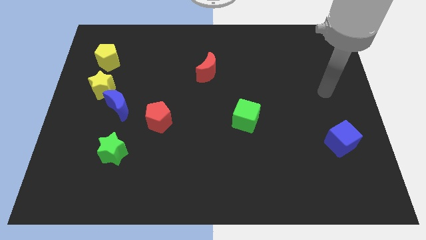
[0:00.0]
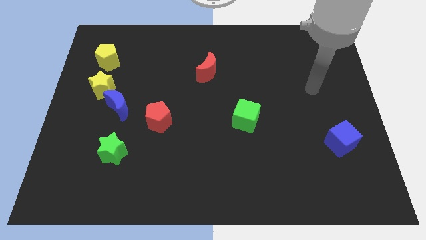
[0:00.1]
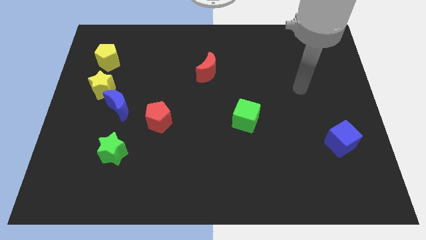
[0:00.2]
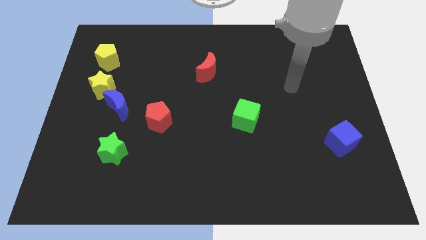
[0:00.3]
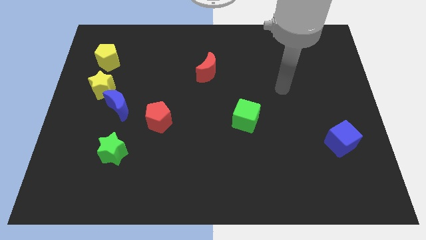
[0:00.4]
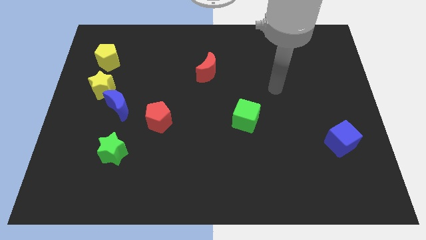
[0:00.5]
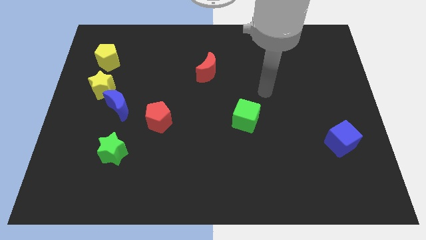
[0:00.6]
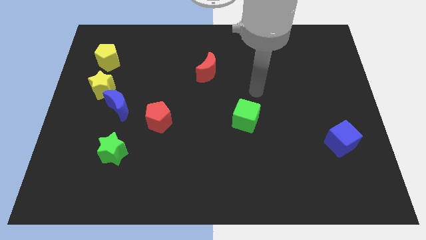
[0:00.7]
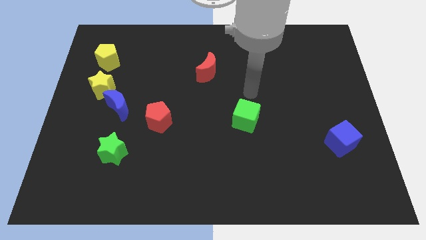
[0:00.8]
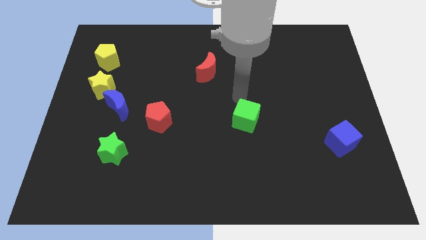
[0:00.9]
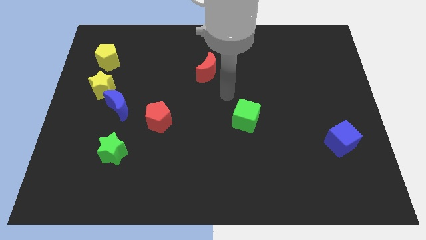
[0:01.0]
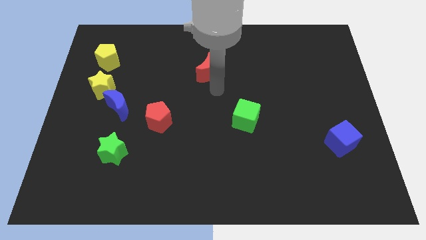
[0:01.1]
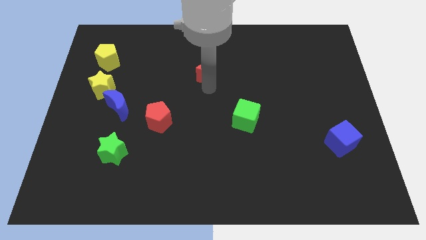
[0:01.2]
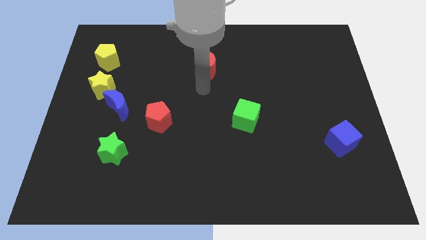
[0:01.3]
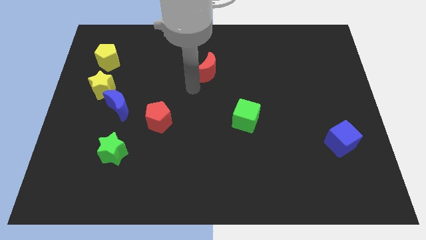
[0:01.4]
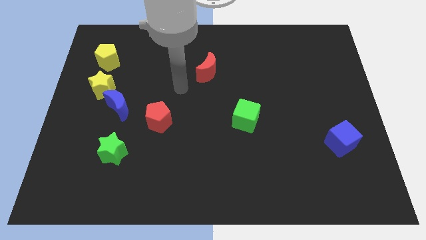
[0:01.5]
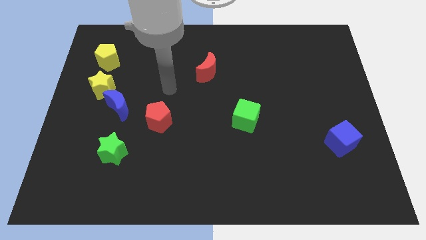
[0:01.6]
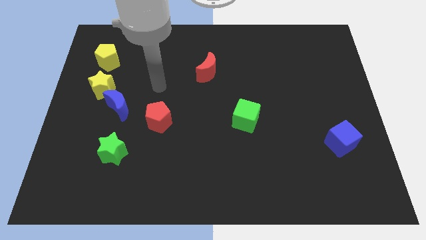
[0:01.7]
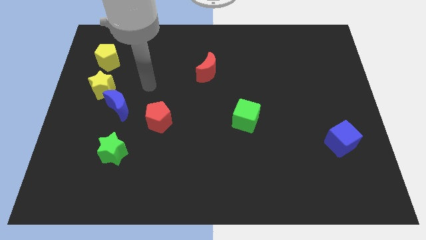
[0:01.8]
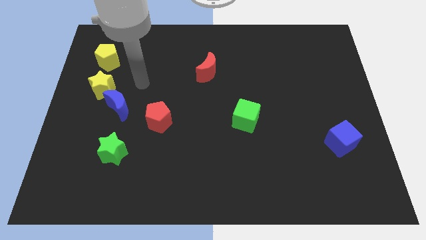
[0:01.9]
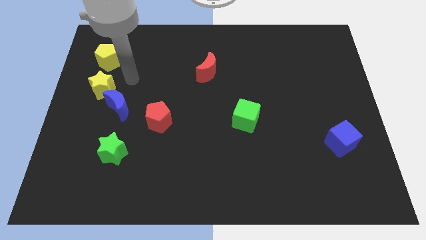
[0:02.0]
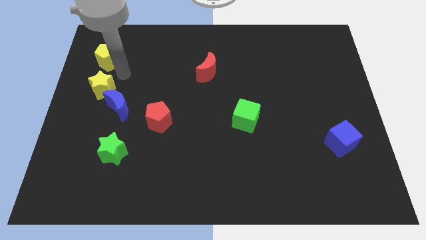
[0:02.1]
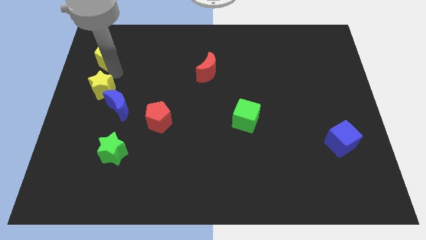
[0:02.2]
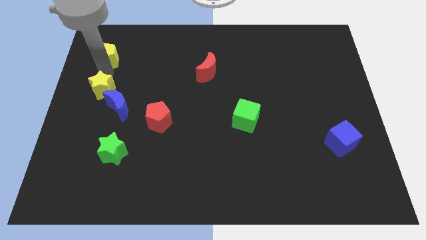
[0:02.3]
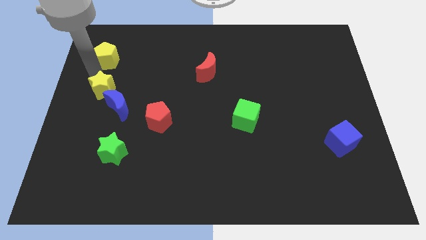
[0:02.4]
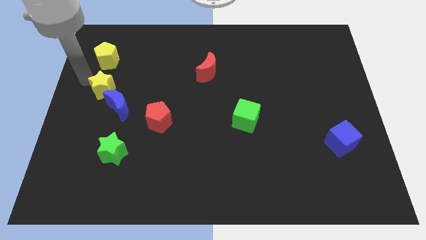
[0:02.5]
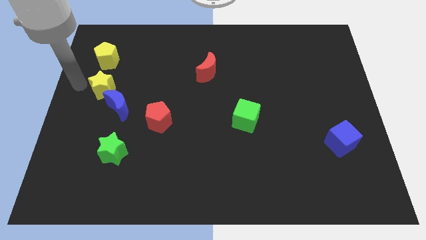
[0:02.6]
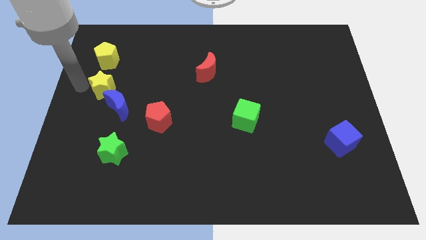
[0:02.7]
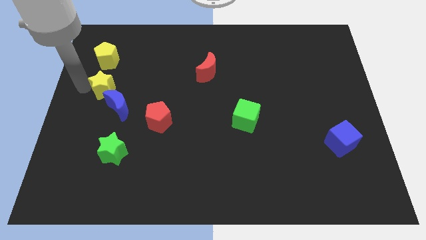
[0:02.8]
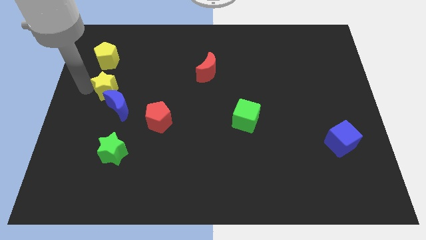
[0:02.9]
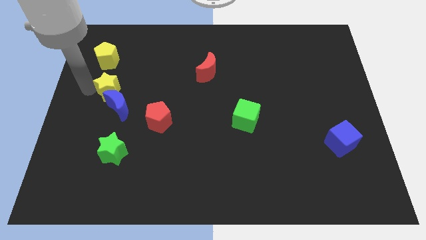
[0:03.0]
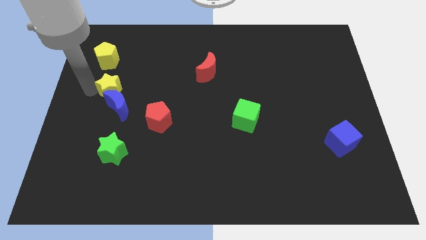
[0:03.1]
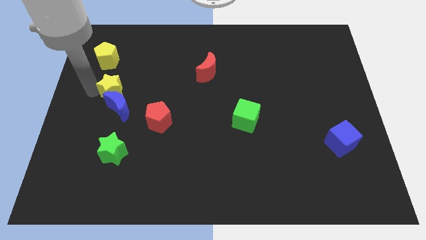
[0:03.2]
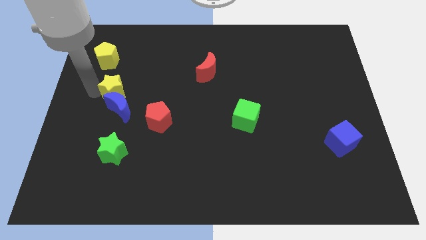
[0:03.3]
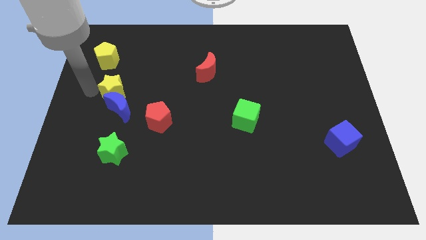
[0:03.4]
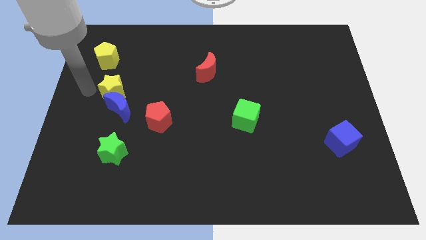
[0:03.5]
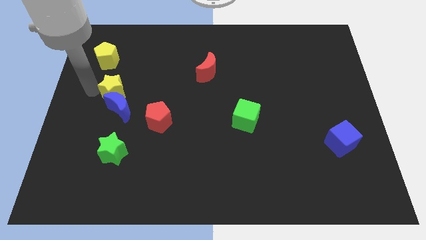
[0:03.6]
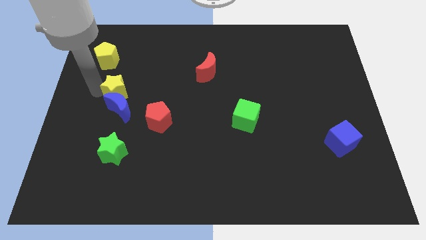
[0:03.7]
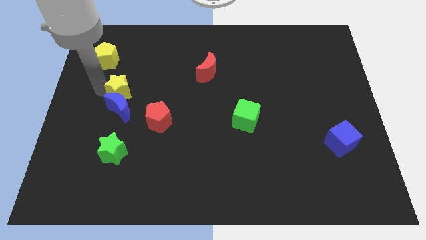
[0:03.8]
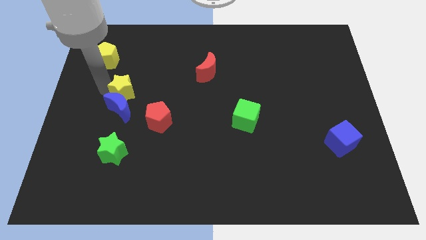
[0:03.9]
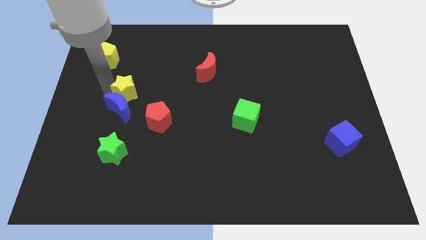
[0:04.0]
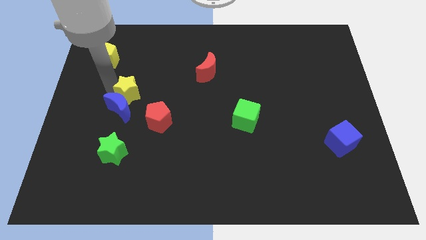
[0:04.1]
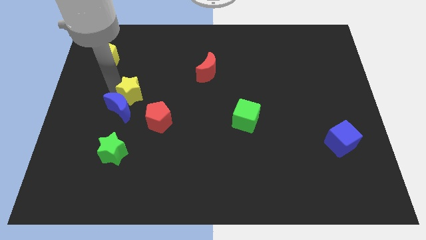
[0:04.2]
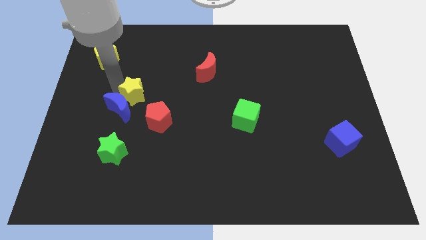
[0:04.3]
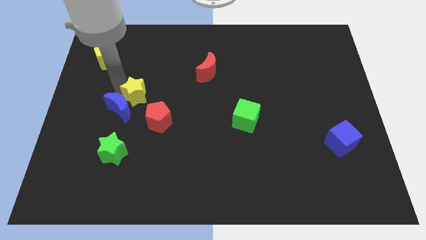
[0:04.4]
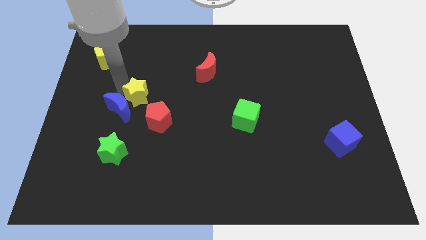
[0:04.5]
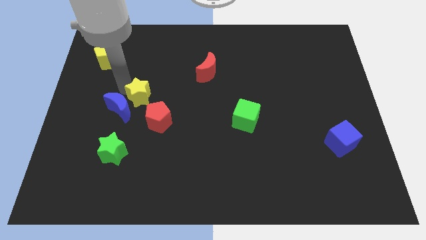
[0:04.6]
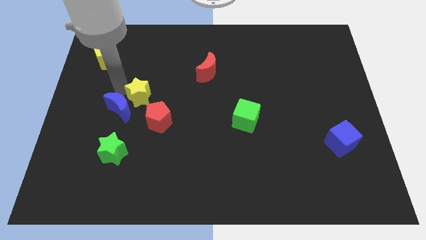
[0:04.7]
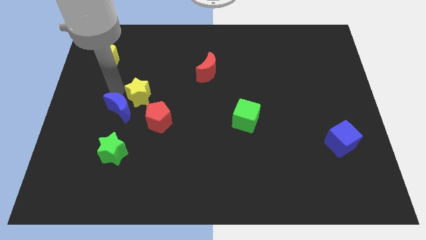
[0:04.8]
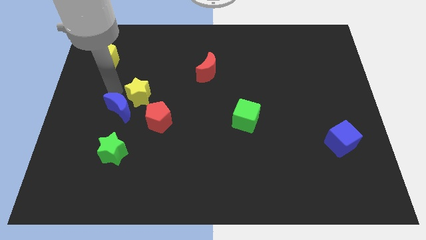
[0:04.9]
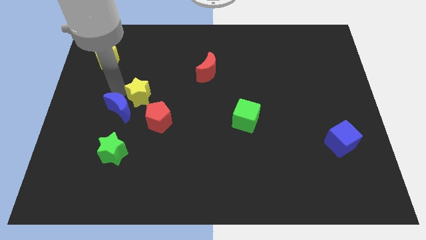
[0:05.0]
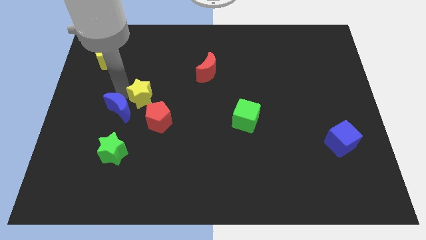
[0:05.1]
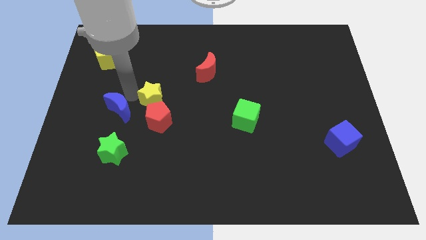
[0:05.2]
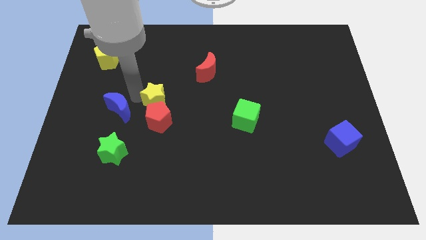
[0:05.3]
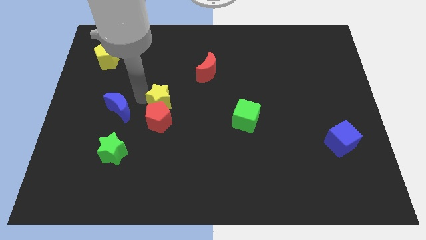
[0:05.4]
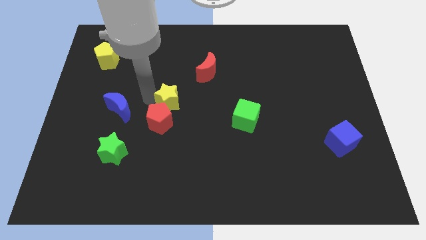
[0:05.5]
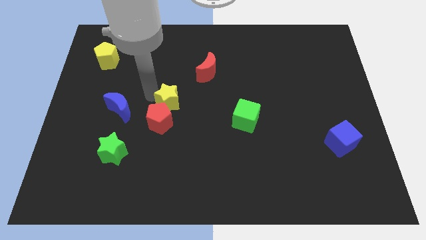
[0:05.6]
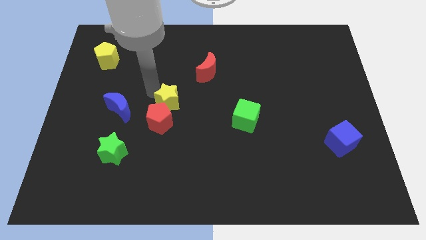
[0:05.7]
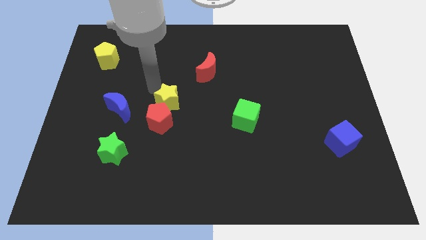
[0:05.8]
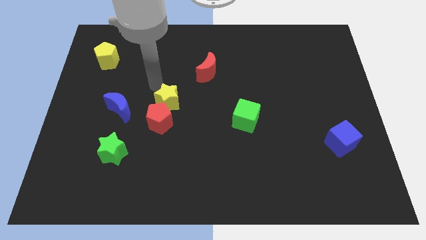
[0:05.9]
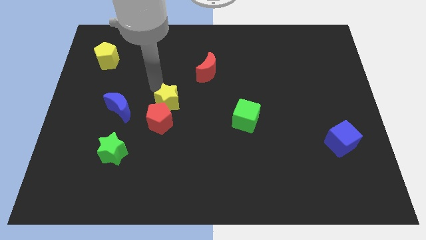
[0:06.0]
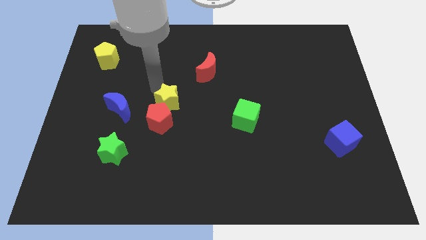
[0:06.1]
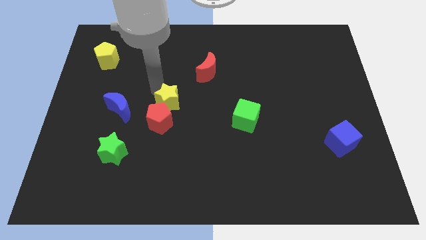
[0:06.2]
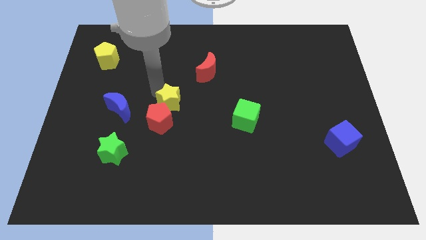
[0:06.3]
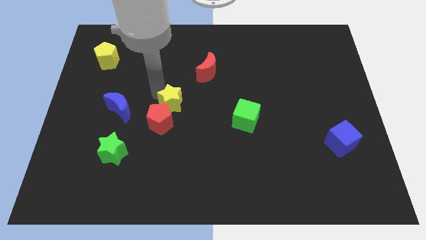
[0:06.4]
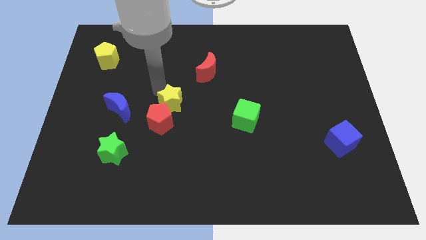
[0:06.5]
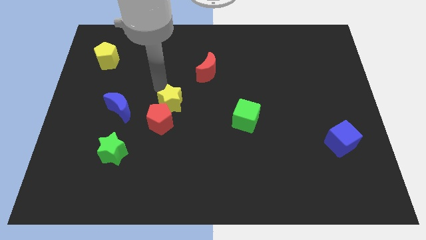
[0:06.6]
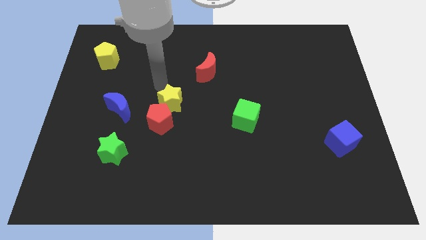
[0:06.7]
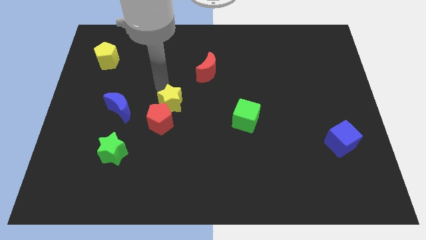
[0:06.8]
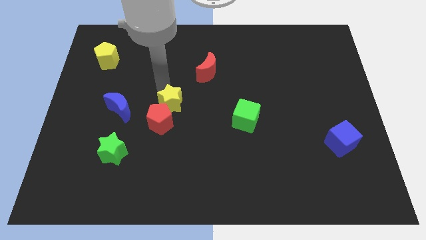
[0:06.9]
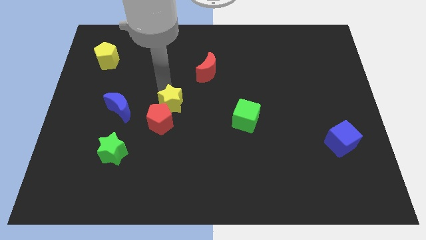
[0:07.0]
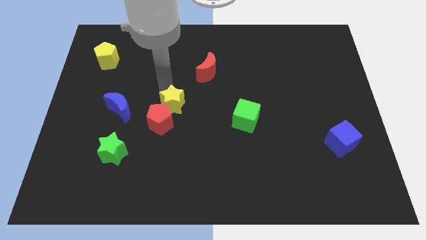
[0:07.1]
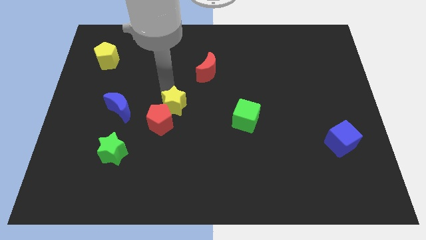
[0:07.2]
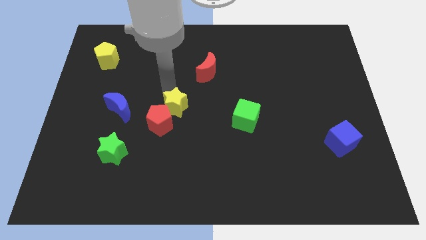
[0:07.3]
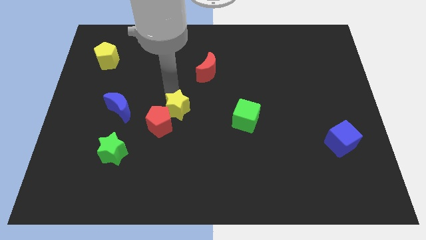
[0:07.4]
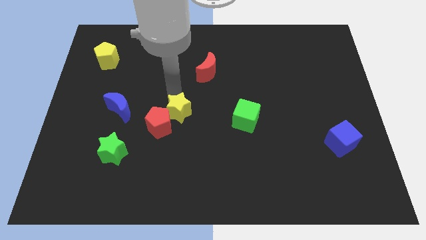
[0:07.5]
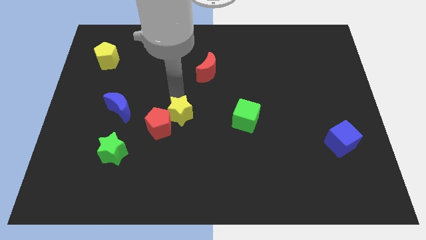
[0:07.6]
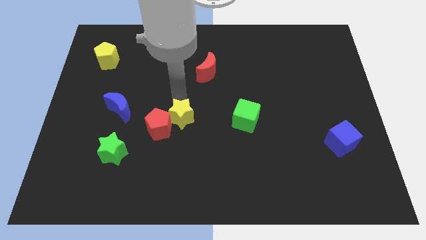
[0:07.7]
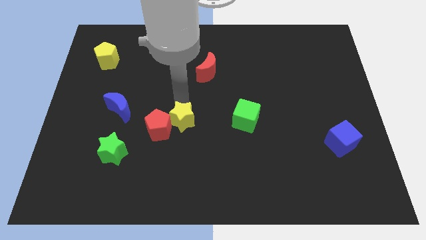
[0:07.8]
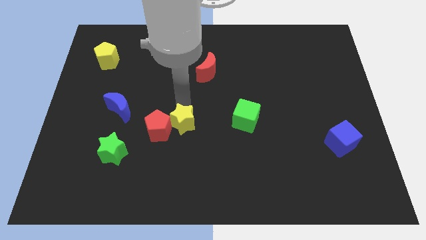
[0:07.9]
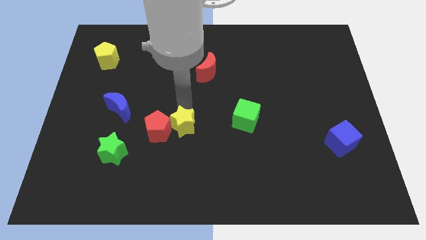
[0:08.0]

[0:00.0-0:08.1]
put the yellow star to the bottom right of the red pentagon
